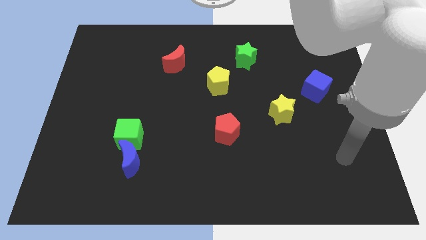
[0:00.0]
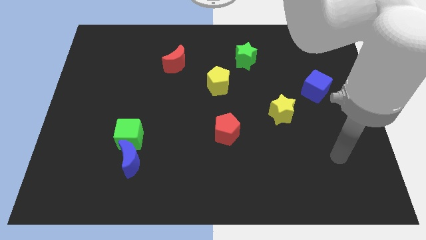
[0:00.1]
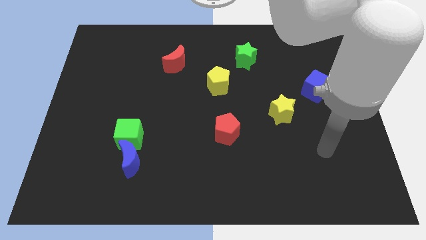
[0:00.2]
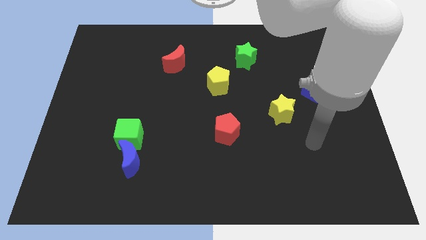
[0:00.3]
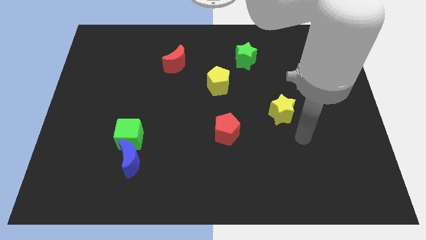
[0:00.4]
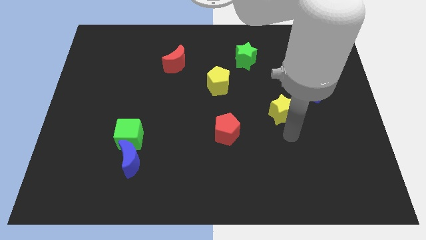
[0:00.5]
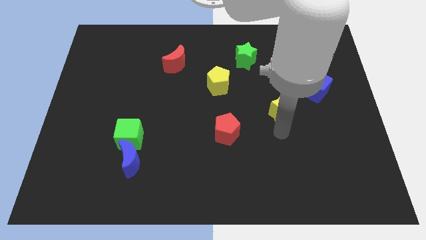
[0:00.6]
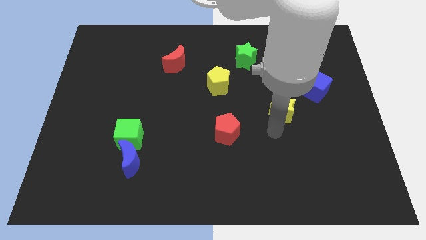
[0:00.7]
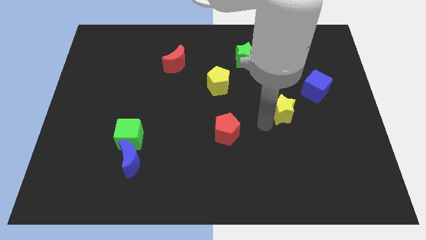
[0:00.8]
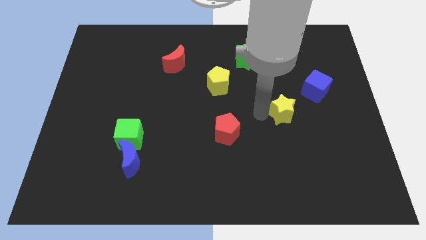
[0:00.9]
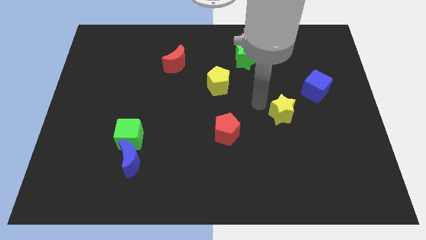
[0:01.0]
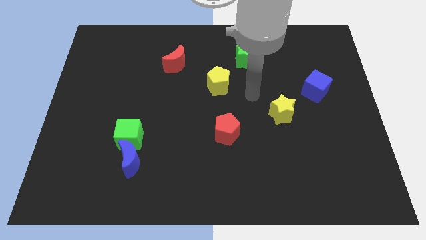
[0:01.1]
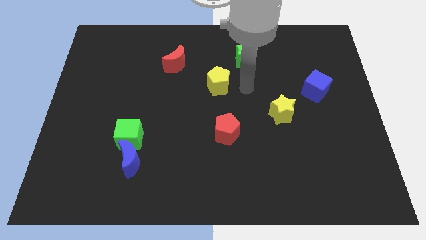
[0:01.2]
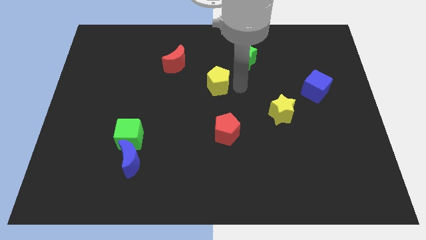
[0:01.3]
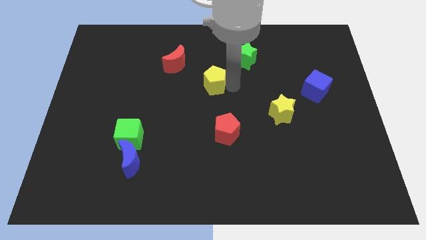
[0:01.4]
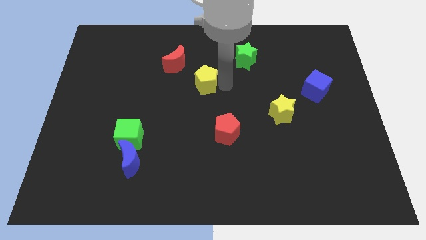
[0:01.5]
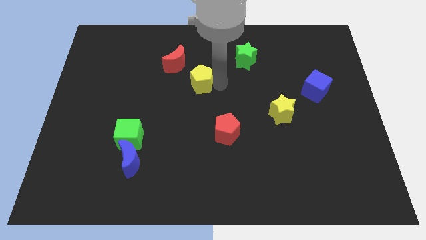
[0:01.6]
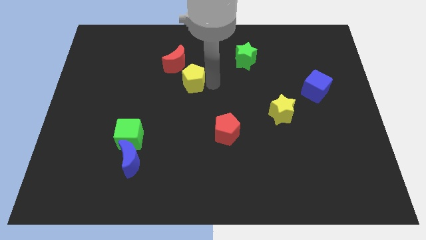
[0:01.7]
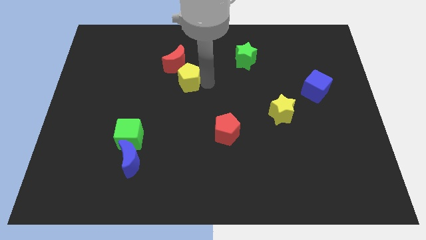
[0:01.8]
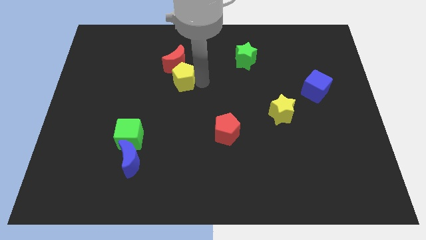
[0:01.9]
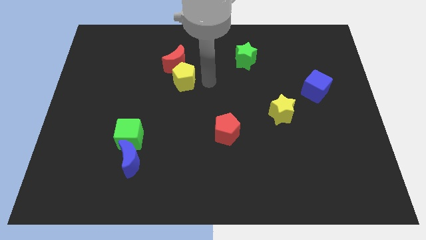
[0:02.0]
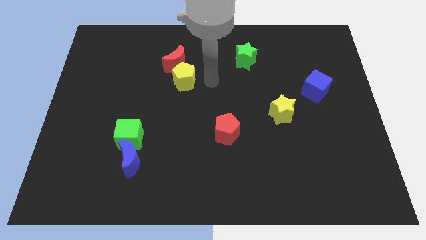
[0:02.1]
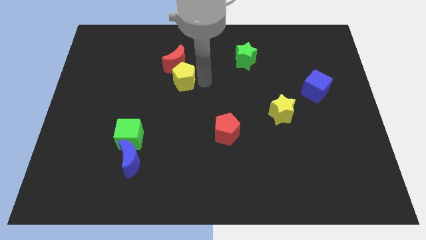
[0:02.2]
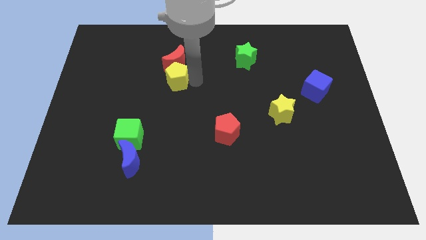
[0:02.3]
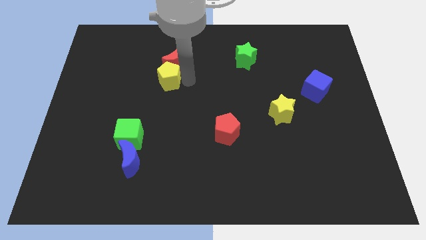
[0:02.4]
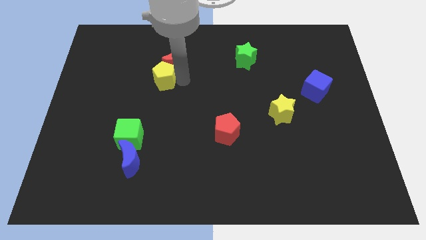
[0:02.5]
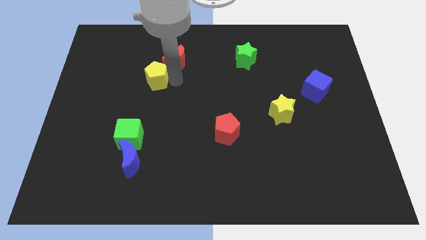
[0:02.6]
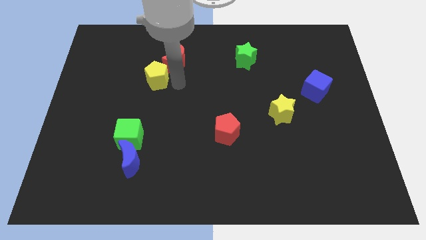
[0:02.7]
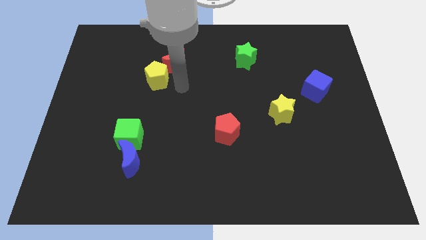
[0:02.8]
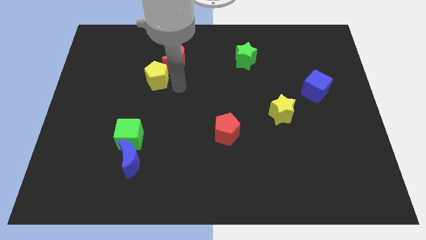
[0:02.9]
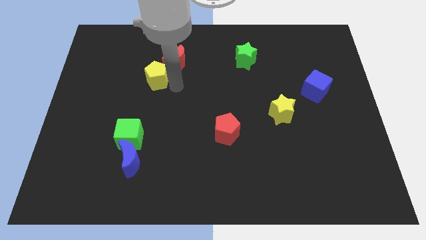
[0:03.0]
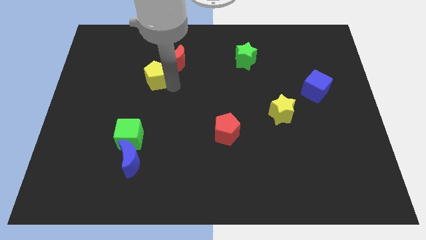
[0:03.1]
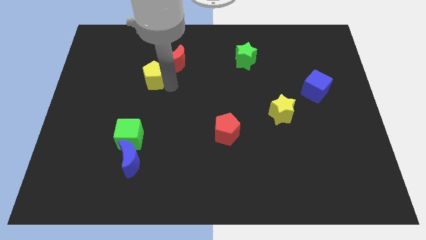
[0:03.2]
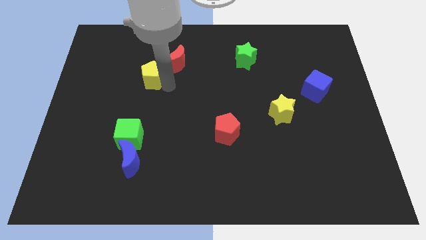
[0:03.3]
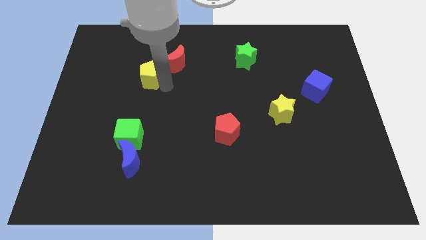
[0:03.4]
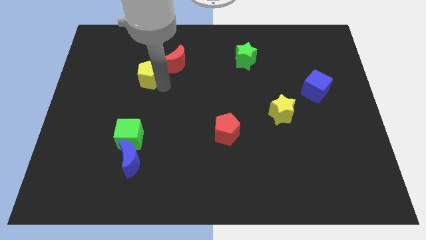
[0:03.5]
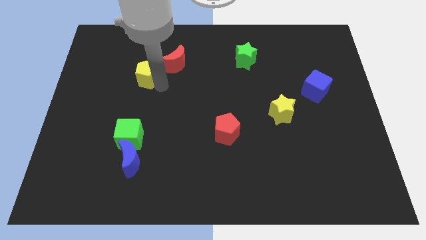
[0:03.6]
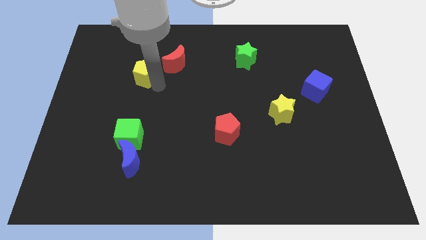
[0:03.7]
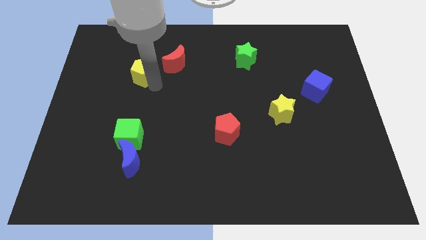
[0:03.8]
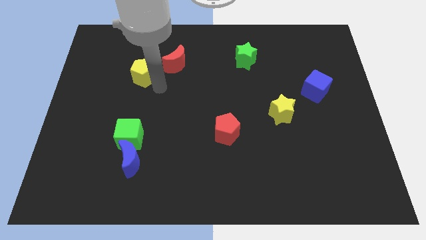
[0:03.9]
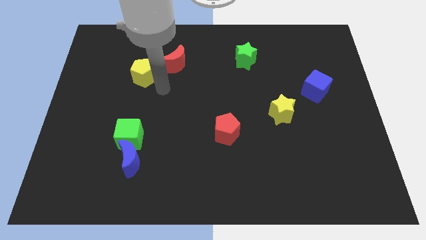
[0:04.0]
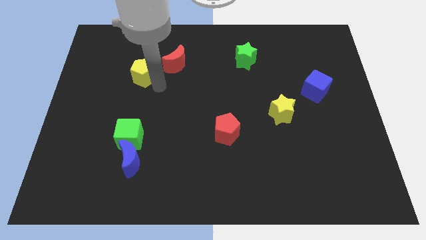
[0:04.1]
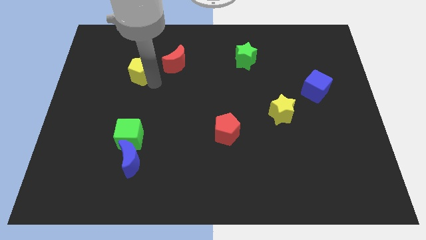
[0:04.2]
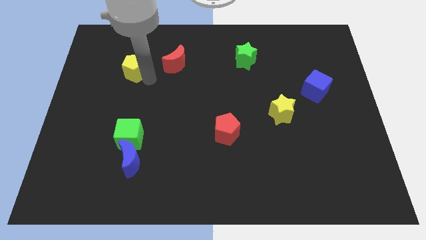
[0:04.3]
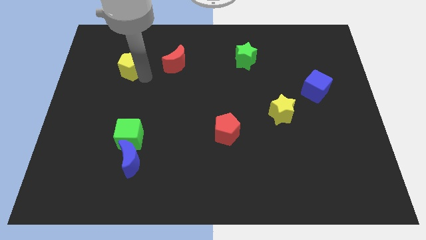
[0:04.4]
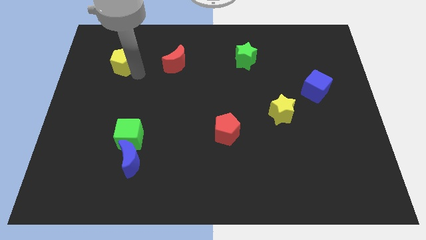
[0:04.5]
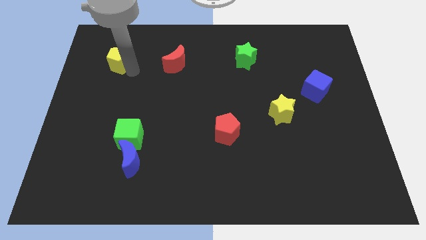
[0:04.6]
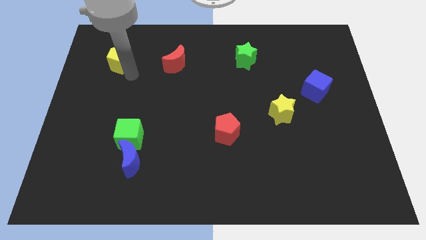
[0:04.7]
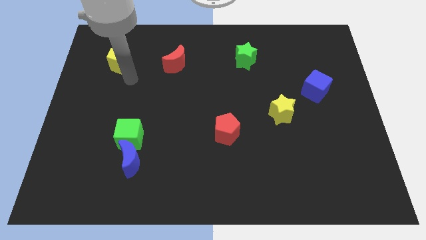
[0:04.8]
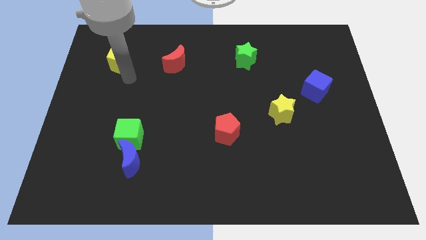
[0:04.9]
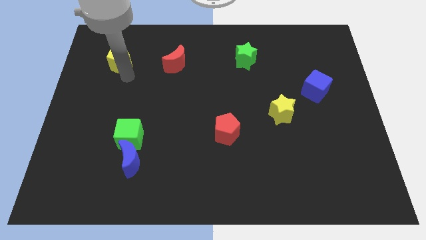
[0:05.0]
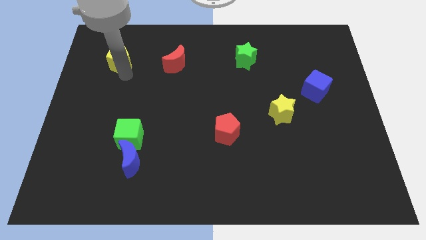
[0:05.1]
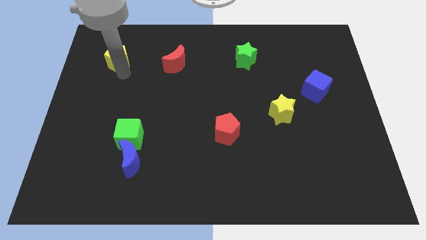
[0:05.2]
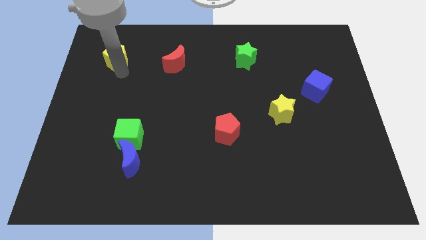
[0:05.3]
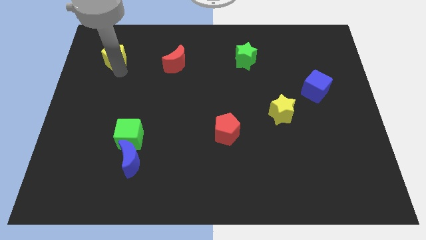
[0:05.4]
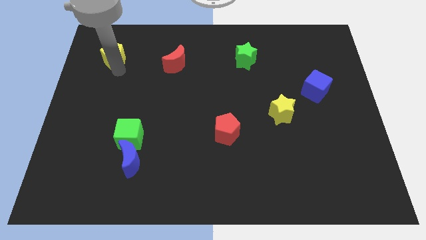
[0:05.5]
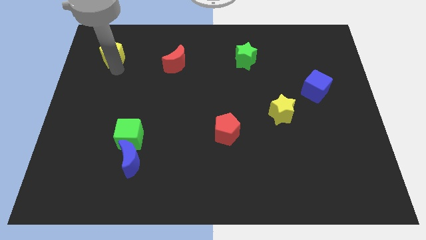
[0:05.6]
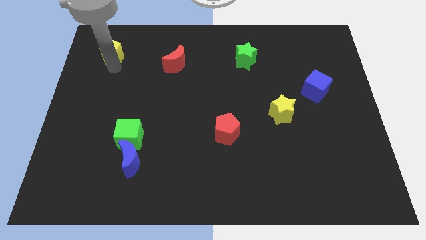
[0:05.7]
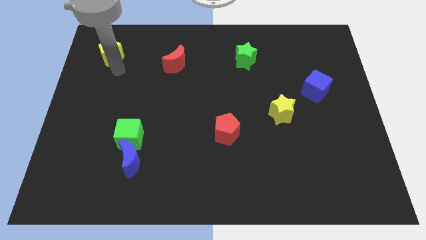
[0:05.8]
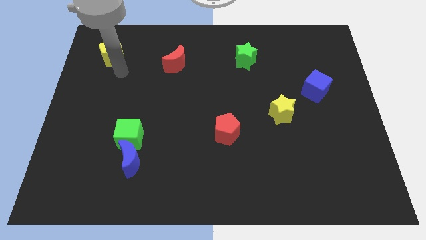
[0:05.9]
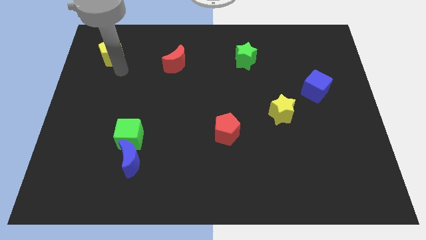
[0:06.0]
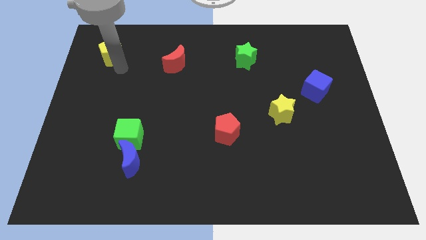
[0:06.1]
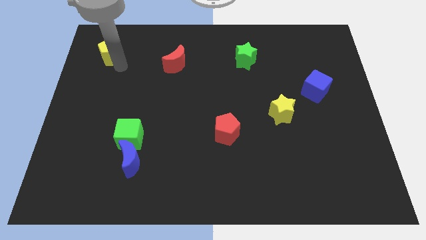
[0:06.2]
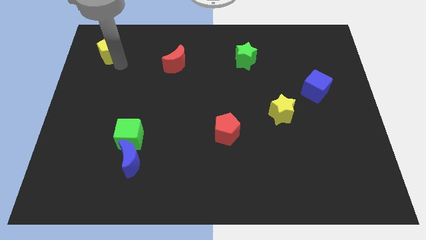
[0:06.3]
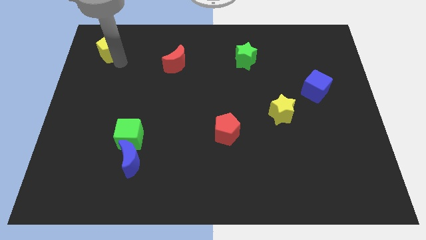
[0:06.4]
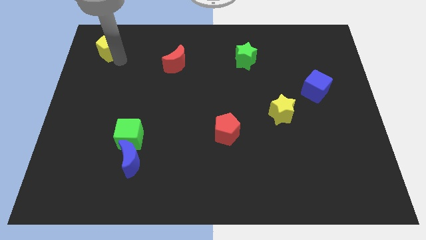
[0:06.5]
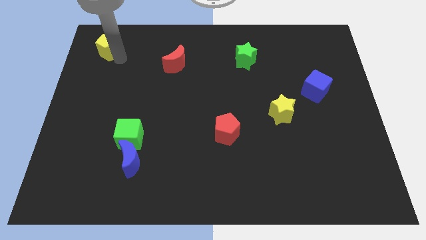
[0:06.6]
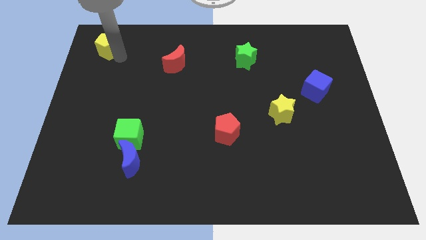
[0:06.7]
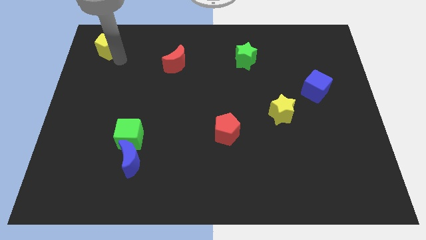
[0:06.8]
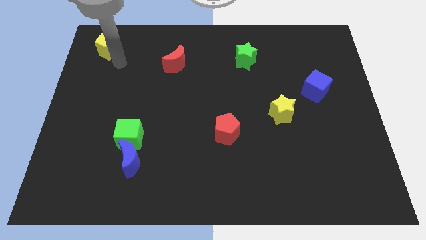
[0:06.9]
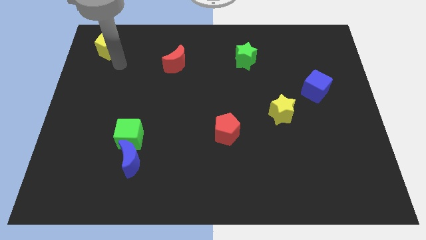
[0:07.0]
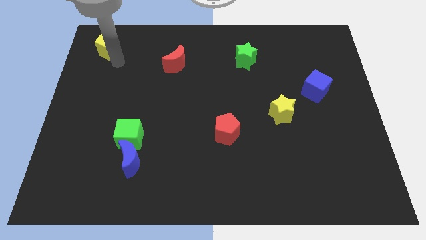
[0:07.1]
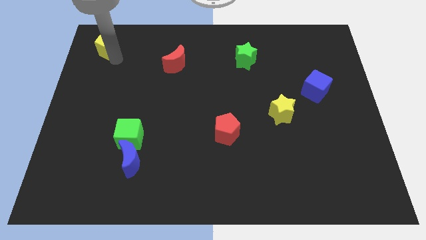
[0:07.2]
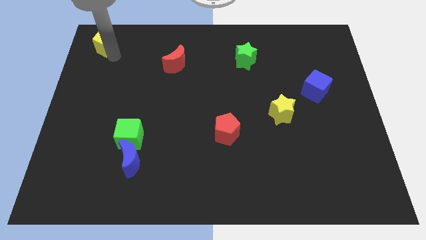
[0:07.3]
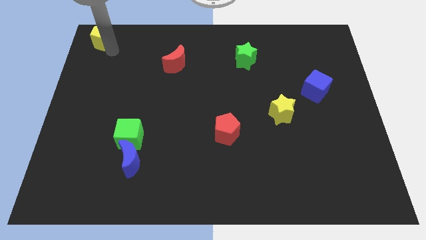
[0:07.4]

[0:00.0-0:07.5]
move the yellow pentagon to the top left corner
